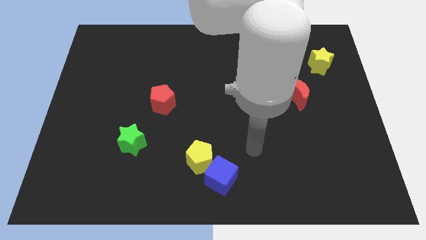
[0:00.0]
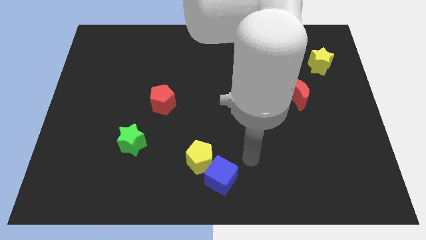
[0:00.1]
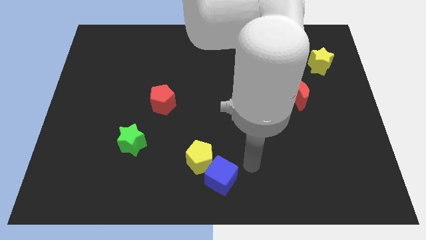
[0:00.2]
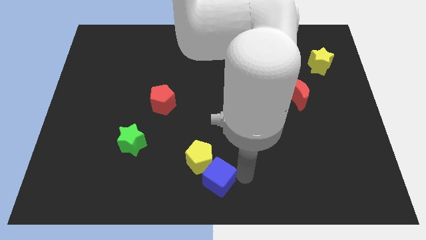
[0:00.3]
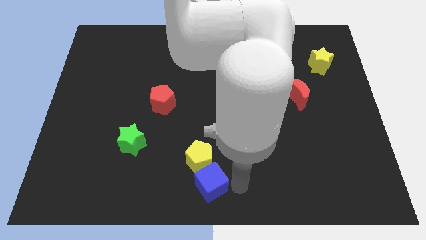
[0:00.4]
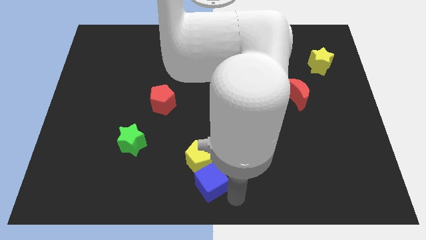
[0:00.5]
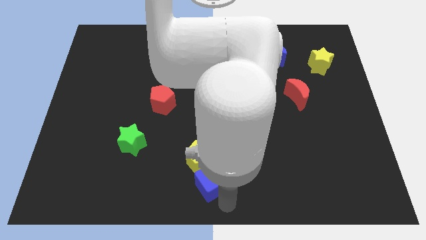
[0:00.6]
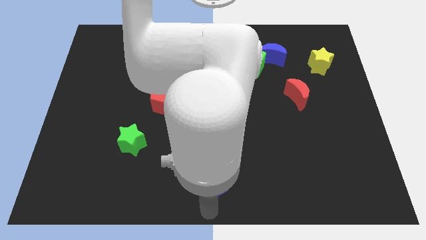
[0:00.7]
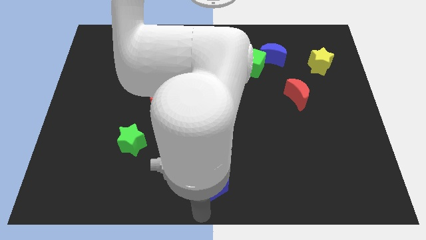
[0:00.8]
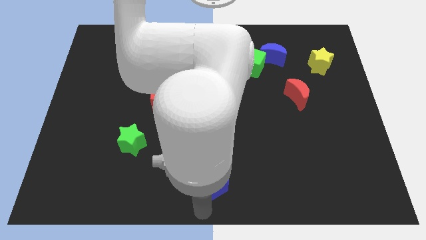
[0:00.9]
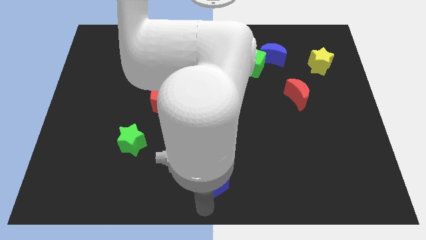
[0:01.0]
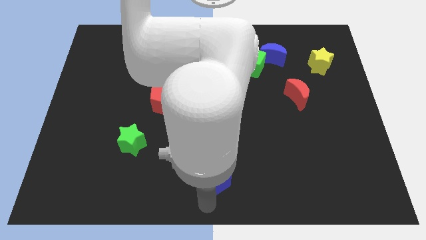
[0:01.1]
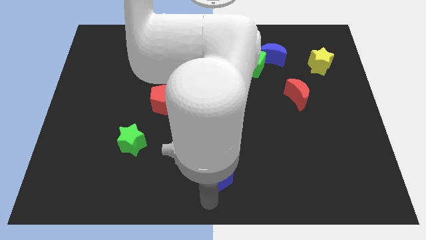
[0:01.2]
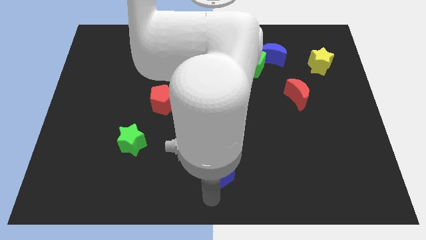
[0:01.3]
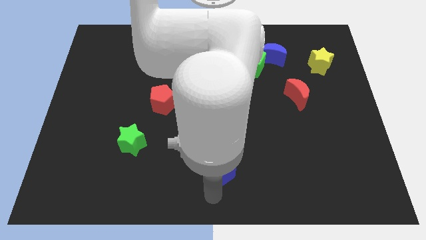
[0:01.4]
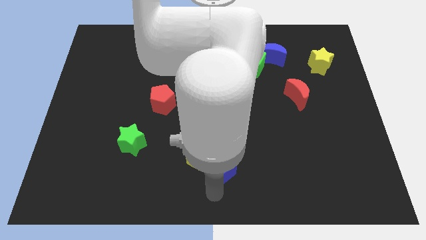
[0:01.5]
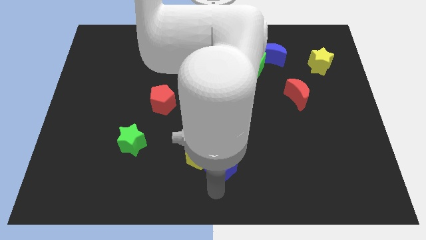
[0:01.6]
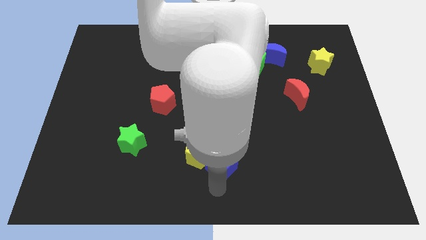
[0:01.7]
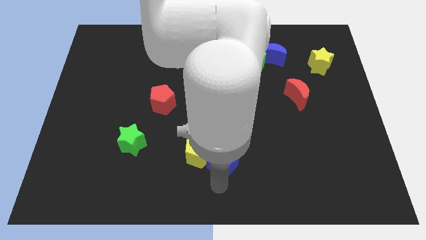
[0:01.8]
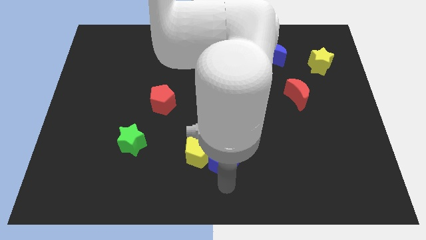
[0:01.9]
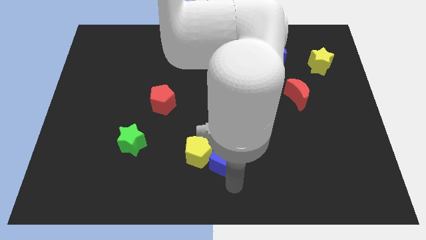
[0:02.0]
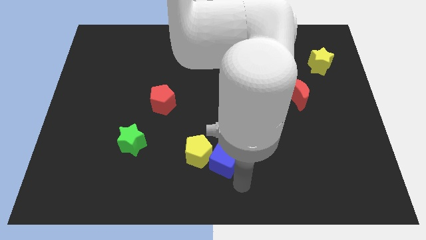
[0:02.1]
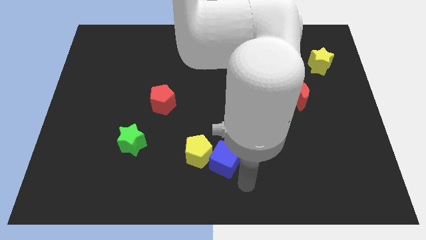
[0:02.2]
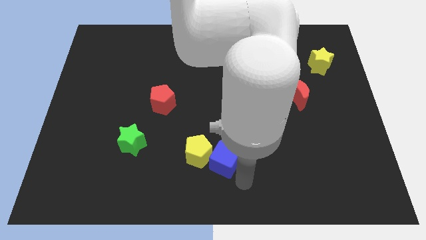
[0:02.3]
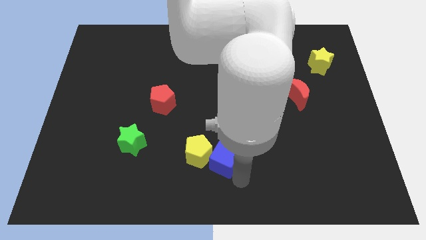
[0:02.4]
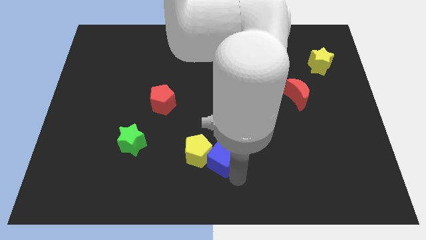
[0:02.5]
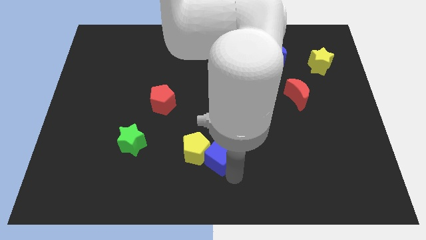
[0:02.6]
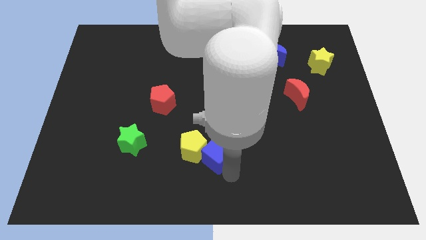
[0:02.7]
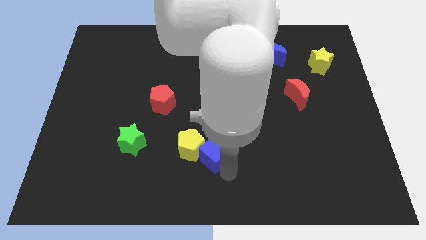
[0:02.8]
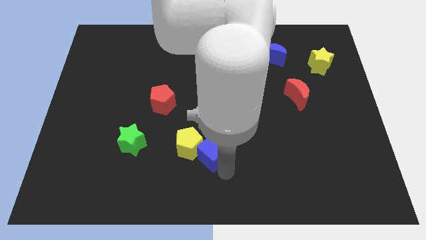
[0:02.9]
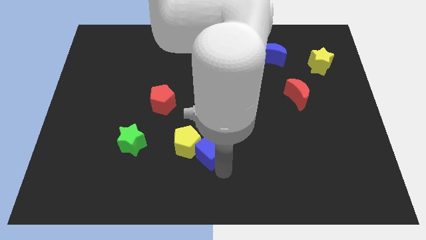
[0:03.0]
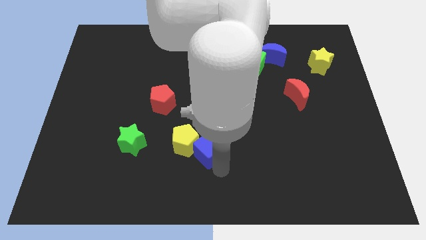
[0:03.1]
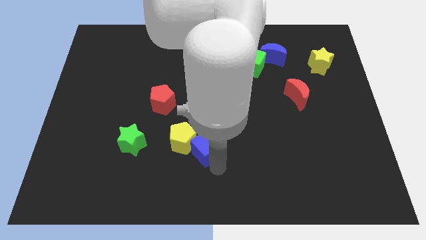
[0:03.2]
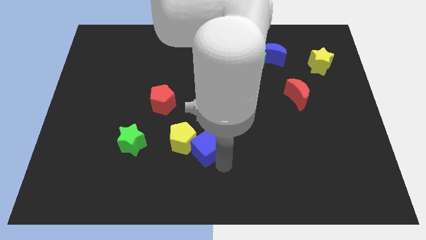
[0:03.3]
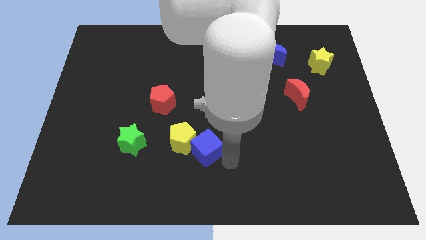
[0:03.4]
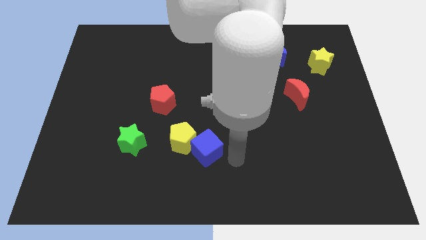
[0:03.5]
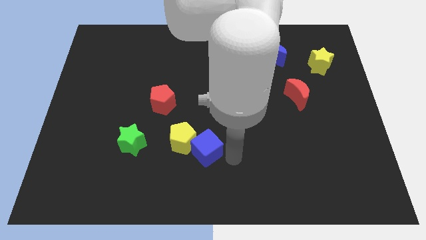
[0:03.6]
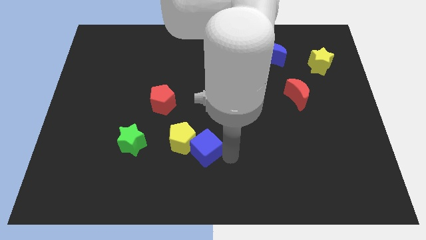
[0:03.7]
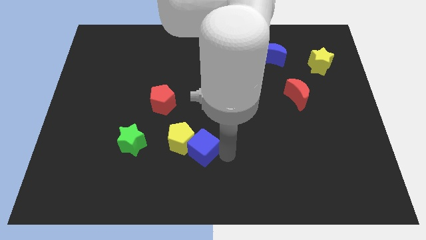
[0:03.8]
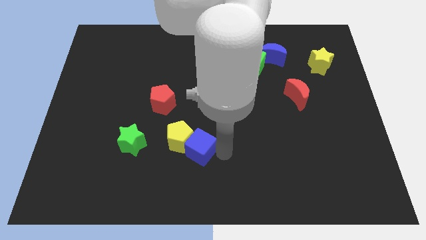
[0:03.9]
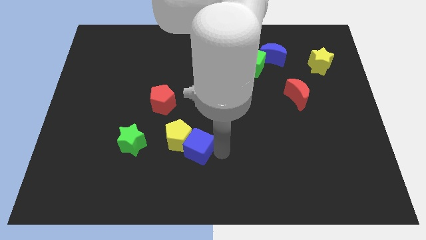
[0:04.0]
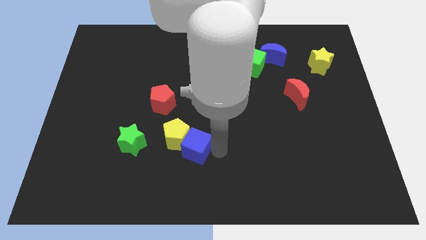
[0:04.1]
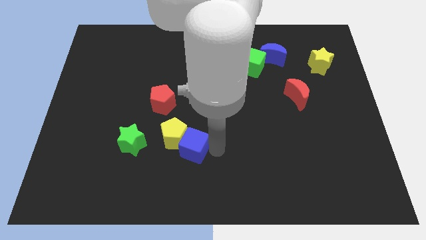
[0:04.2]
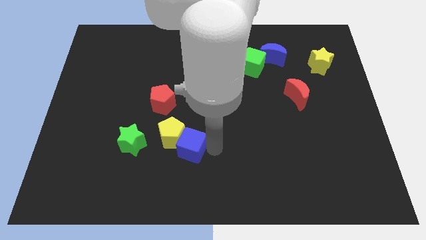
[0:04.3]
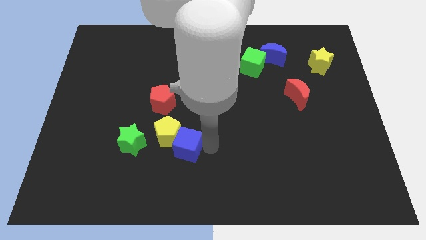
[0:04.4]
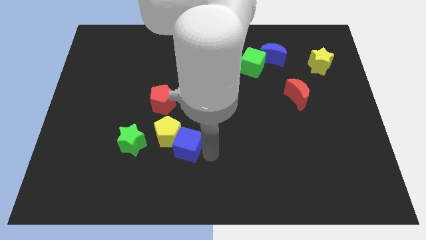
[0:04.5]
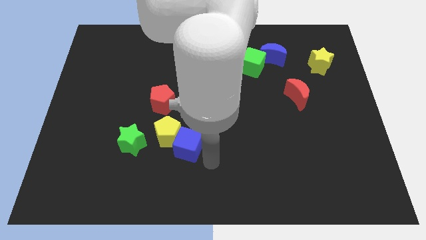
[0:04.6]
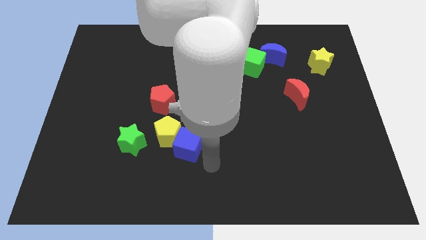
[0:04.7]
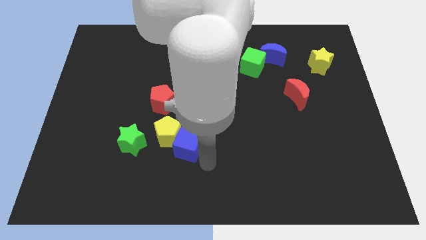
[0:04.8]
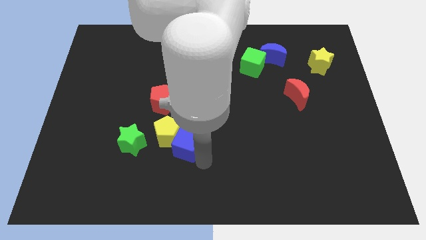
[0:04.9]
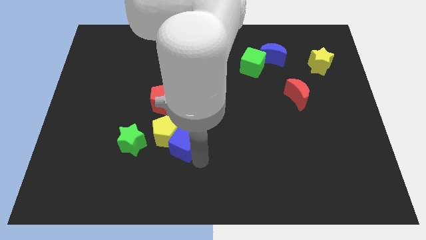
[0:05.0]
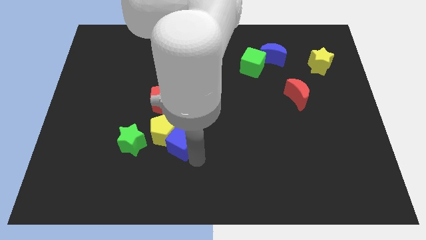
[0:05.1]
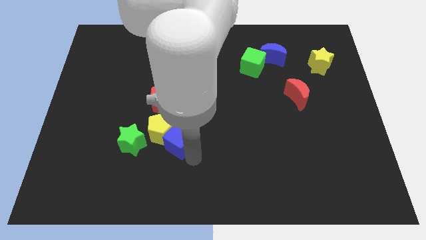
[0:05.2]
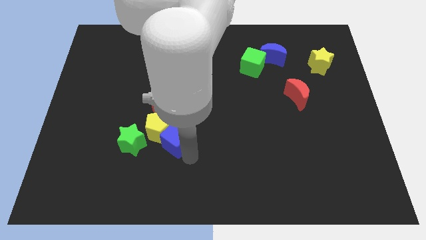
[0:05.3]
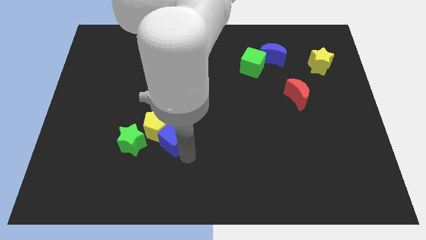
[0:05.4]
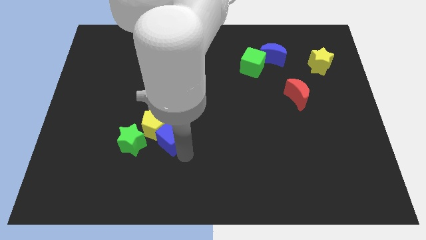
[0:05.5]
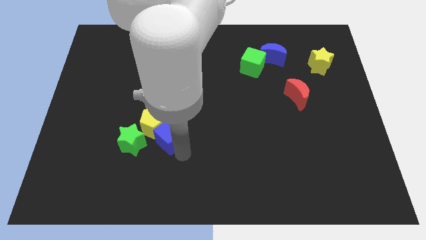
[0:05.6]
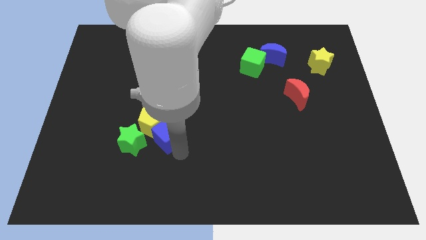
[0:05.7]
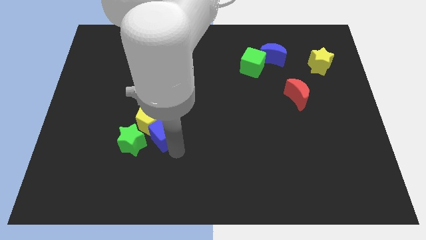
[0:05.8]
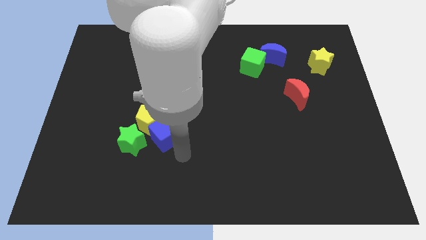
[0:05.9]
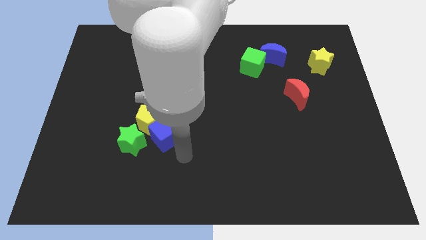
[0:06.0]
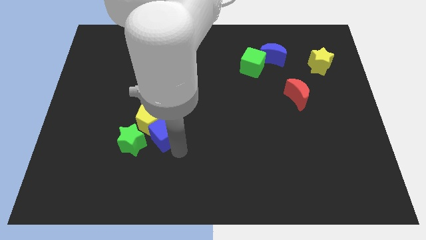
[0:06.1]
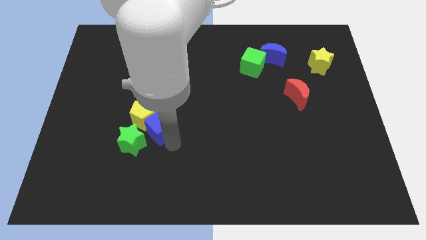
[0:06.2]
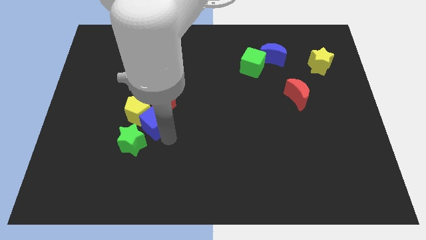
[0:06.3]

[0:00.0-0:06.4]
push the blue cube upwards and then to the left

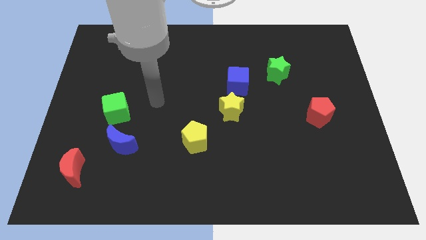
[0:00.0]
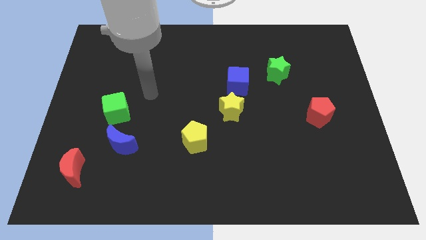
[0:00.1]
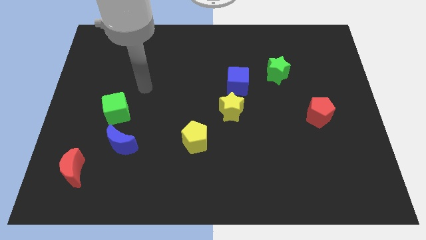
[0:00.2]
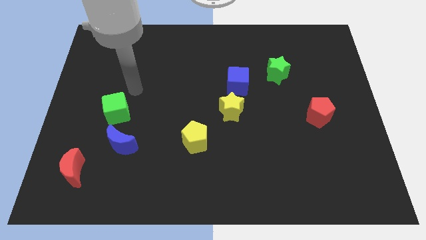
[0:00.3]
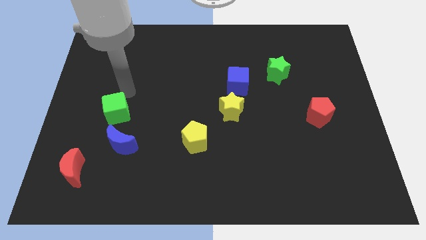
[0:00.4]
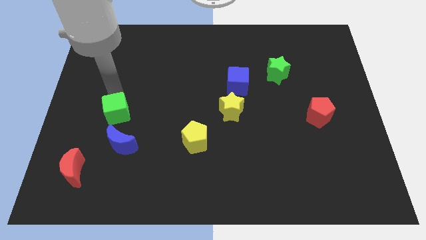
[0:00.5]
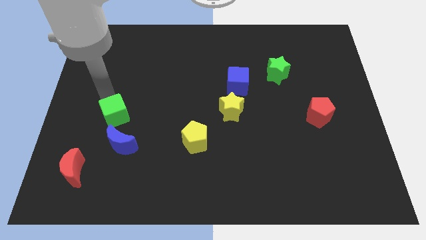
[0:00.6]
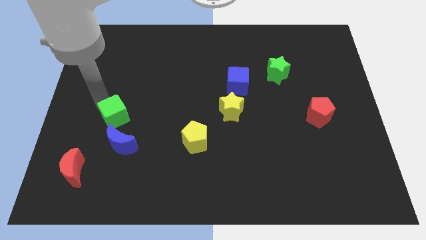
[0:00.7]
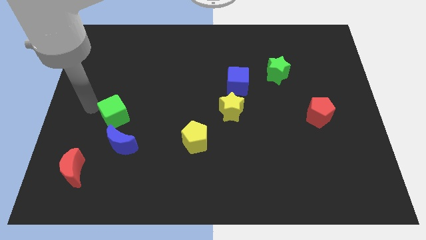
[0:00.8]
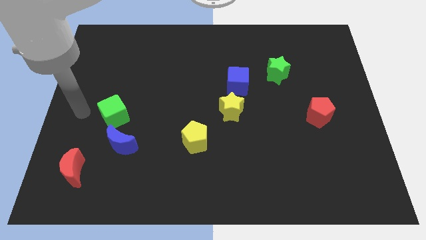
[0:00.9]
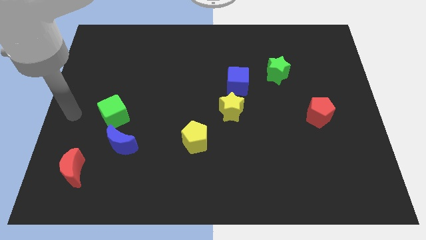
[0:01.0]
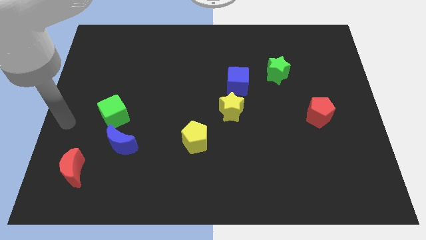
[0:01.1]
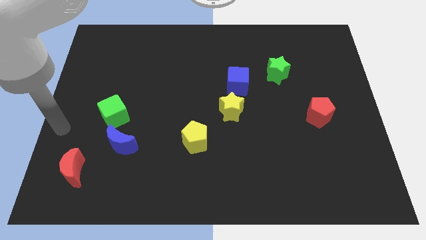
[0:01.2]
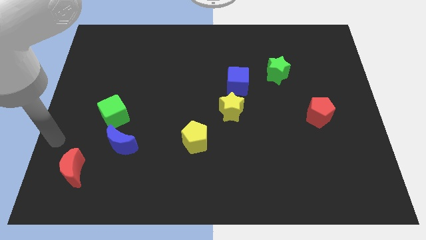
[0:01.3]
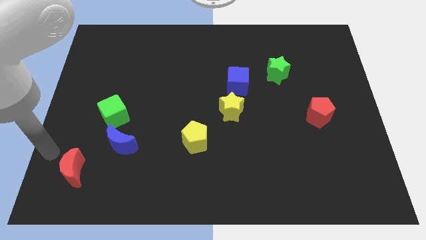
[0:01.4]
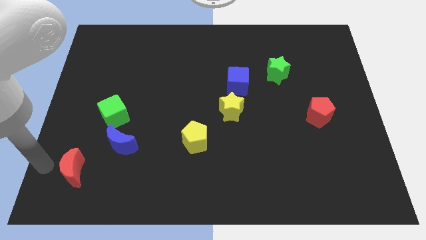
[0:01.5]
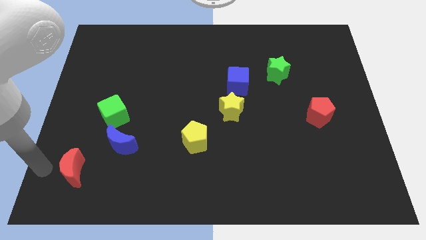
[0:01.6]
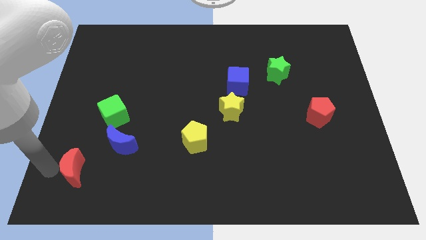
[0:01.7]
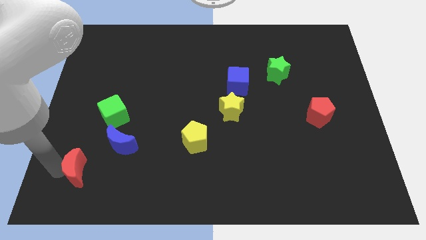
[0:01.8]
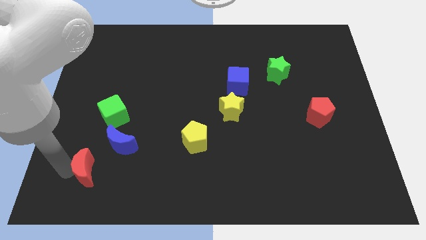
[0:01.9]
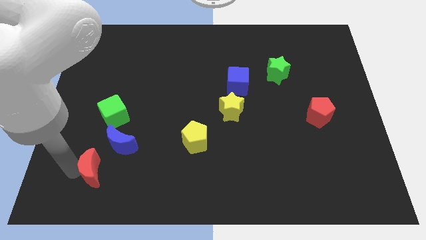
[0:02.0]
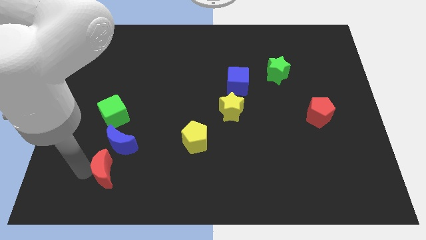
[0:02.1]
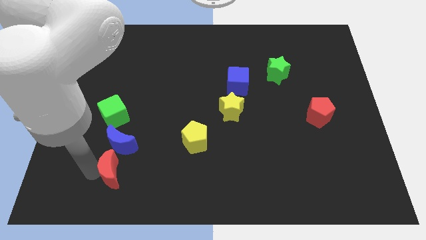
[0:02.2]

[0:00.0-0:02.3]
slide the red moon a bit to the right
